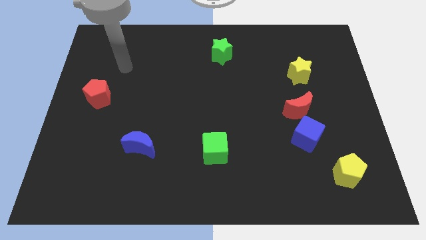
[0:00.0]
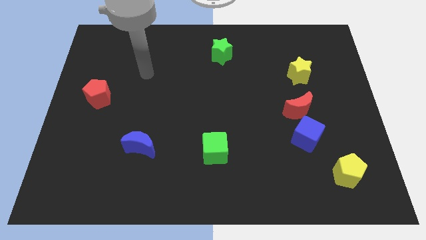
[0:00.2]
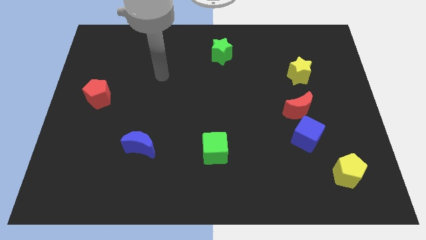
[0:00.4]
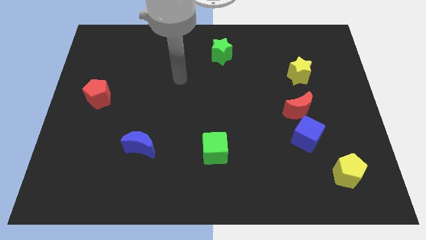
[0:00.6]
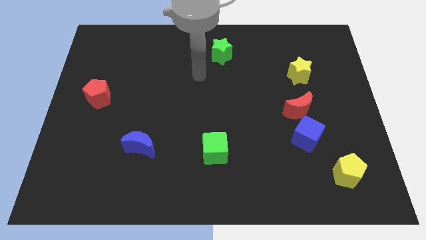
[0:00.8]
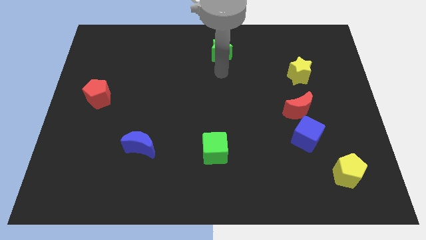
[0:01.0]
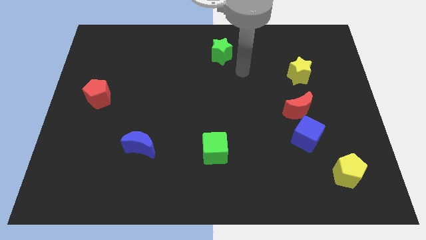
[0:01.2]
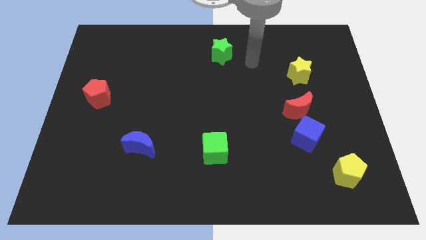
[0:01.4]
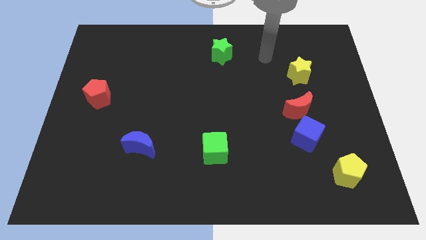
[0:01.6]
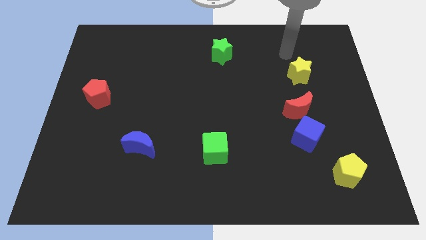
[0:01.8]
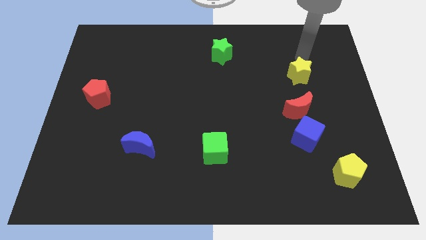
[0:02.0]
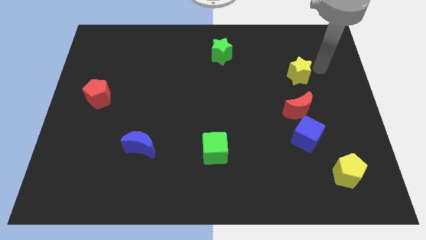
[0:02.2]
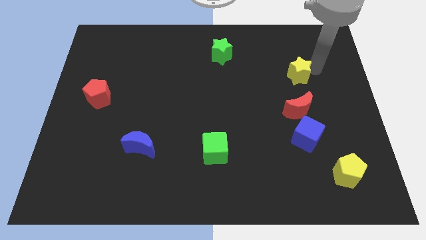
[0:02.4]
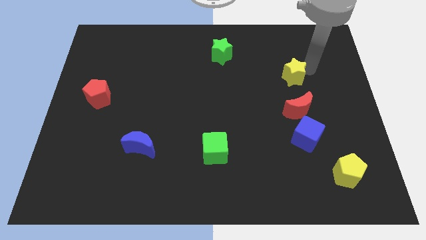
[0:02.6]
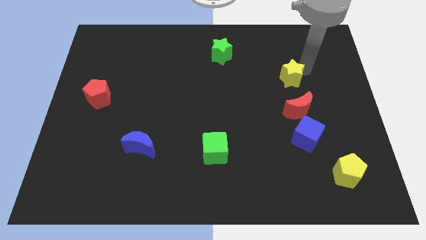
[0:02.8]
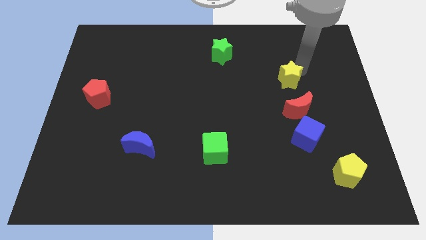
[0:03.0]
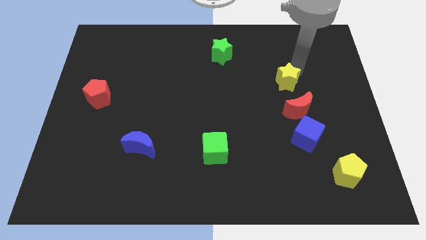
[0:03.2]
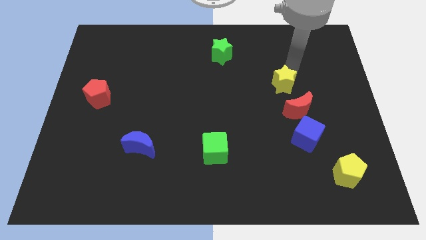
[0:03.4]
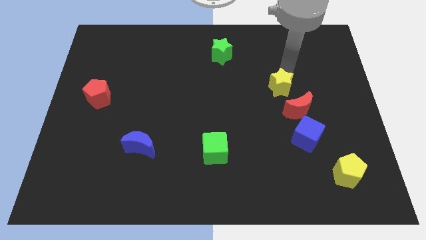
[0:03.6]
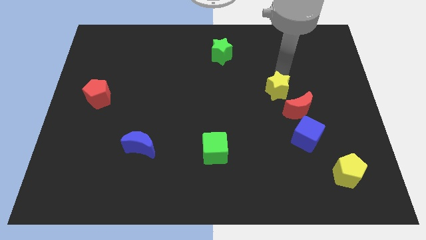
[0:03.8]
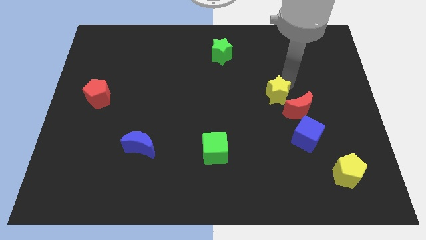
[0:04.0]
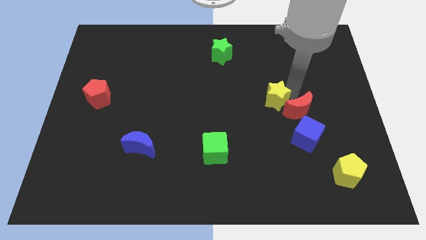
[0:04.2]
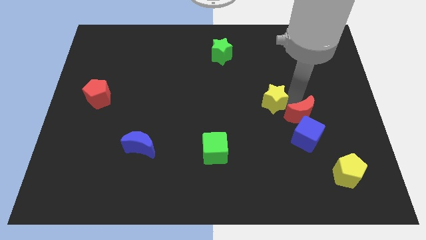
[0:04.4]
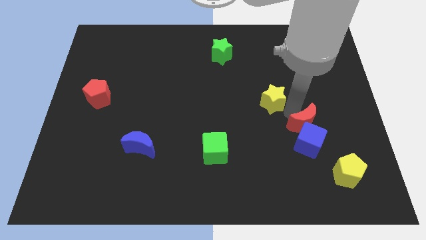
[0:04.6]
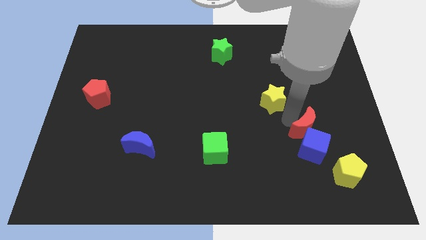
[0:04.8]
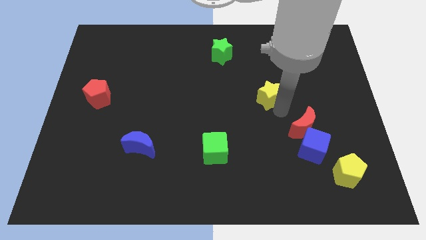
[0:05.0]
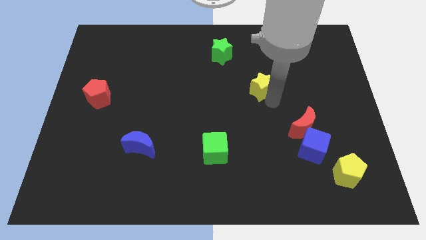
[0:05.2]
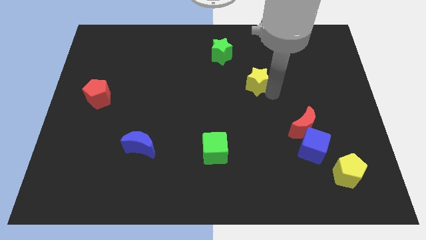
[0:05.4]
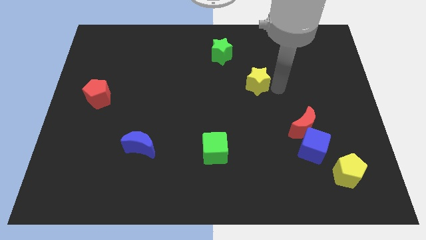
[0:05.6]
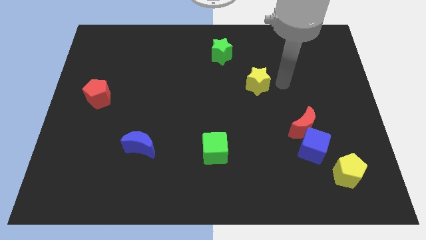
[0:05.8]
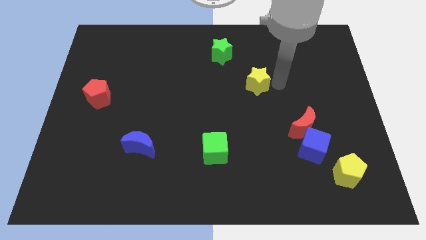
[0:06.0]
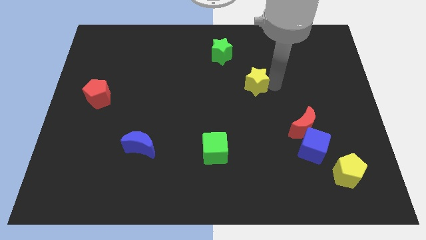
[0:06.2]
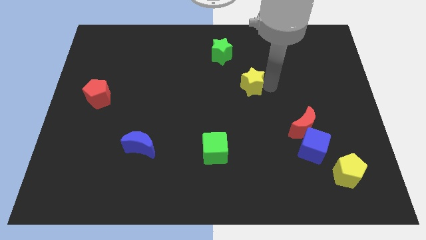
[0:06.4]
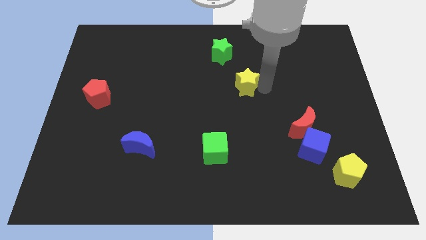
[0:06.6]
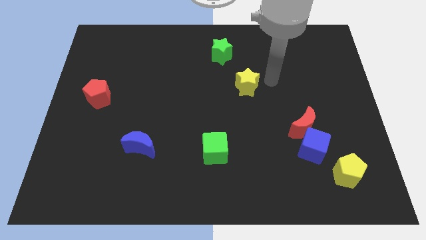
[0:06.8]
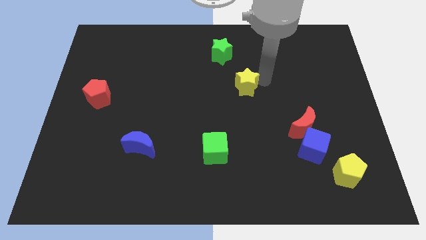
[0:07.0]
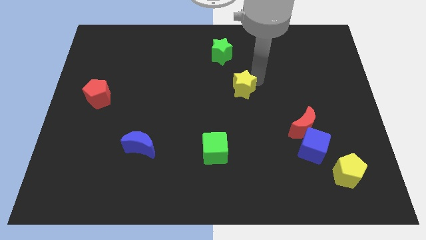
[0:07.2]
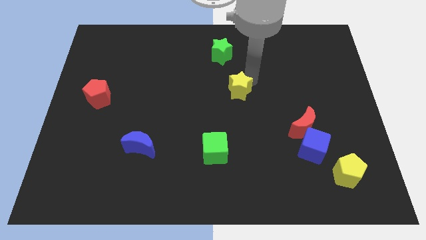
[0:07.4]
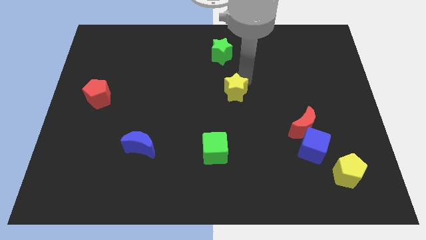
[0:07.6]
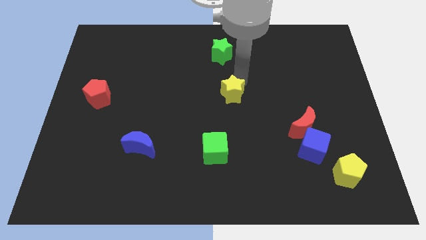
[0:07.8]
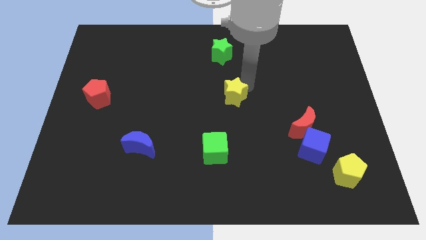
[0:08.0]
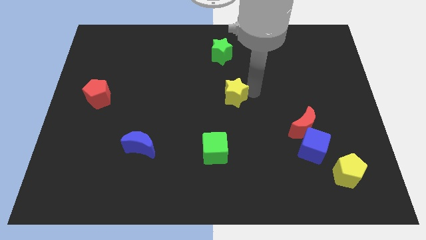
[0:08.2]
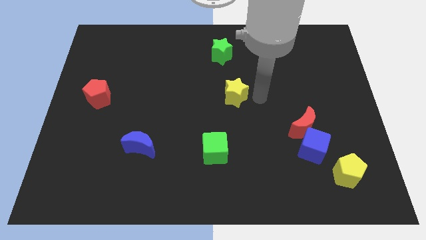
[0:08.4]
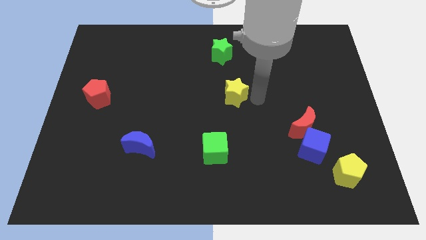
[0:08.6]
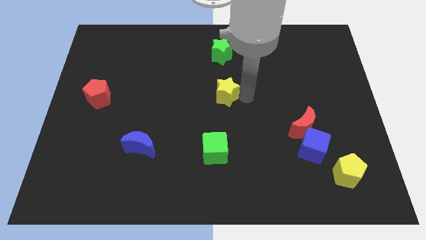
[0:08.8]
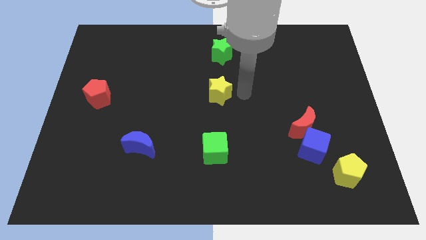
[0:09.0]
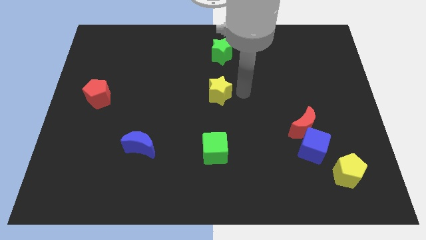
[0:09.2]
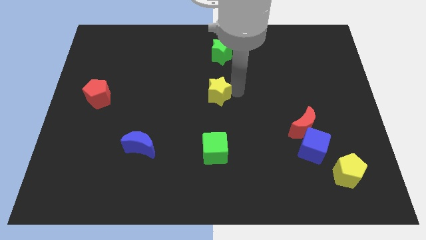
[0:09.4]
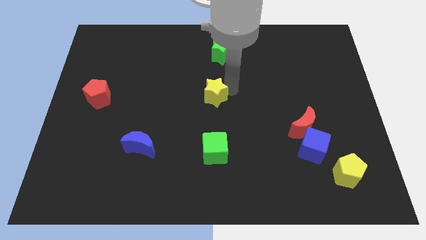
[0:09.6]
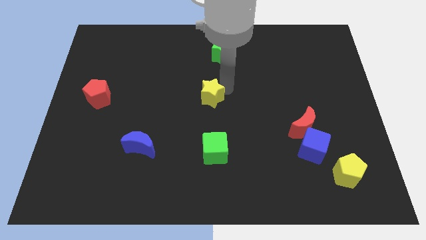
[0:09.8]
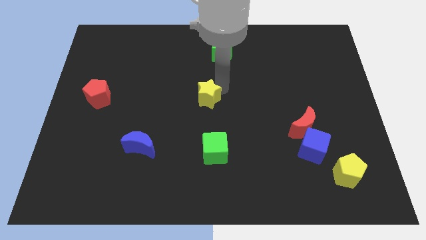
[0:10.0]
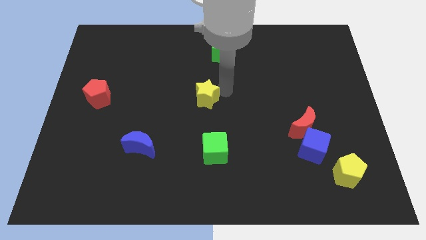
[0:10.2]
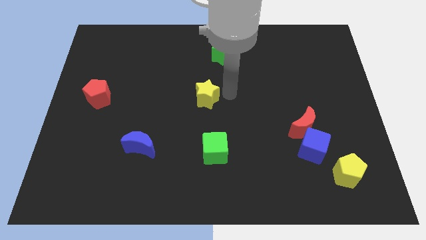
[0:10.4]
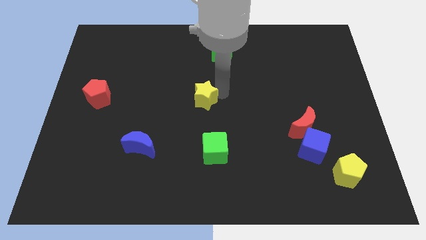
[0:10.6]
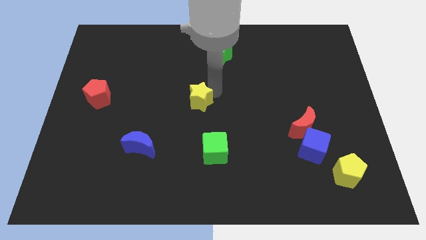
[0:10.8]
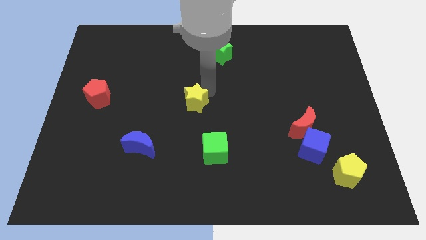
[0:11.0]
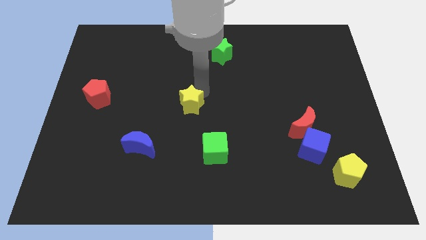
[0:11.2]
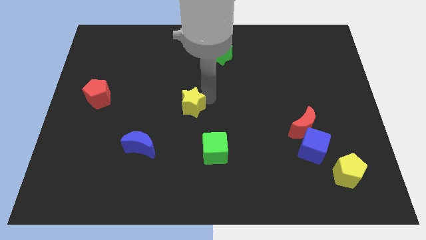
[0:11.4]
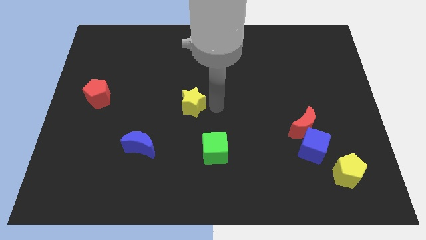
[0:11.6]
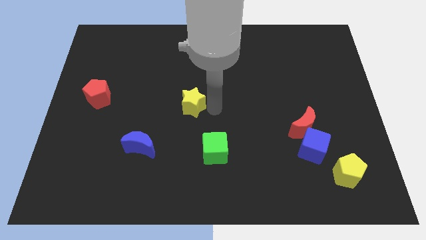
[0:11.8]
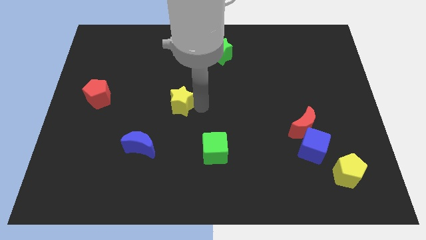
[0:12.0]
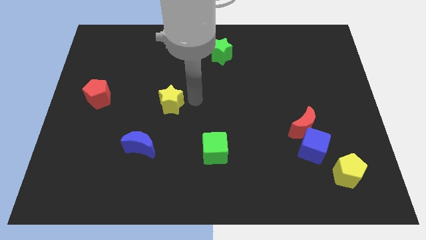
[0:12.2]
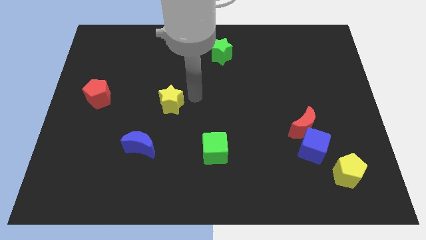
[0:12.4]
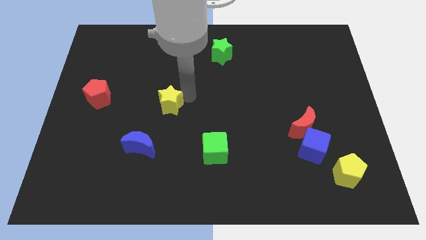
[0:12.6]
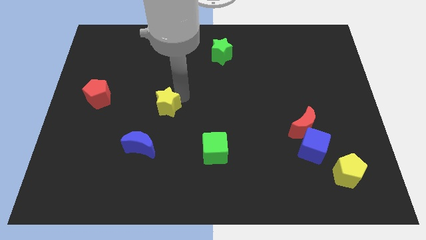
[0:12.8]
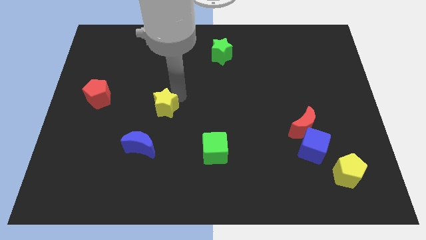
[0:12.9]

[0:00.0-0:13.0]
put the yellow star to the top side of the blue moon
